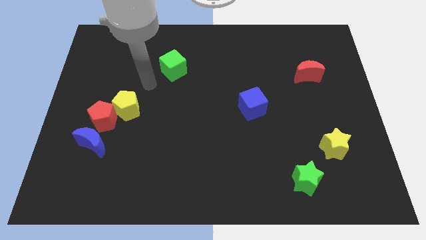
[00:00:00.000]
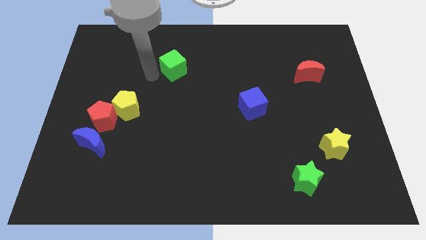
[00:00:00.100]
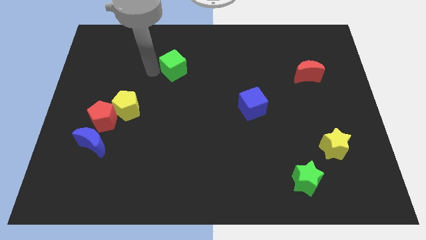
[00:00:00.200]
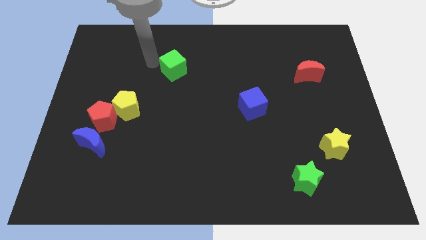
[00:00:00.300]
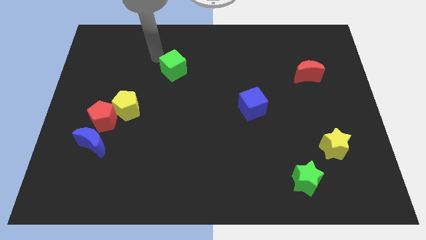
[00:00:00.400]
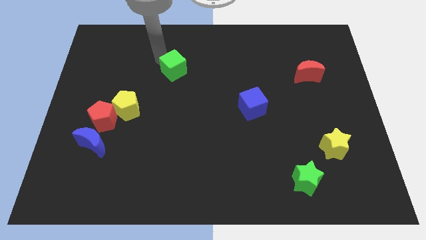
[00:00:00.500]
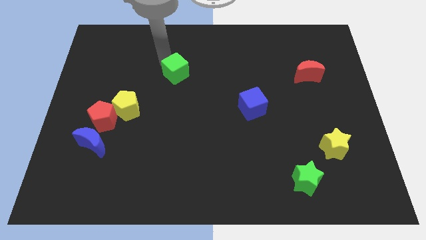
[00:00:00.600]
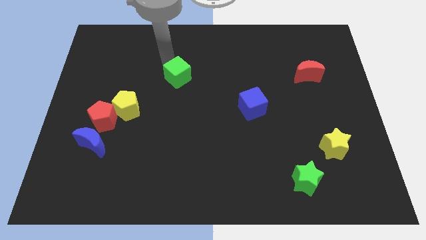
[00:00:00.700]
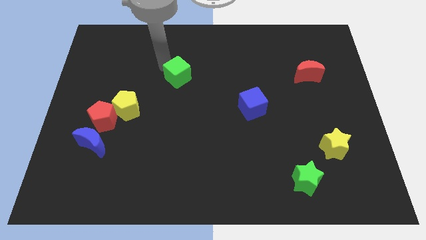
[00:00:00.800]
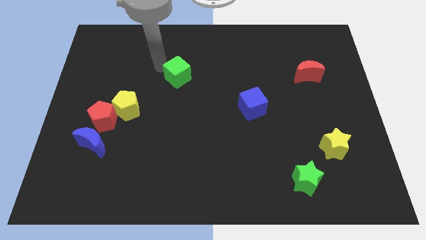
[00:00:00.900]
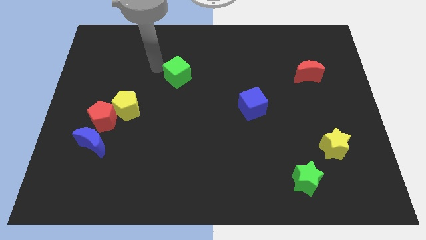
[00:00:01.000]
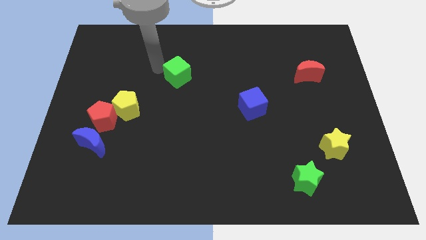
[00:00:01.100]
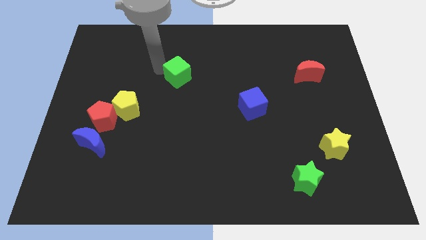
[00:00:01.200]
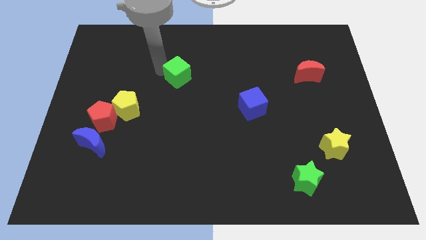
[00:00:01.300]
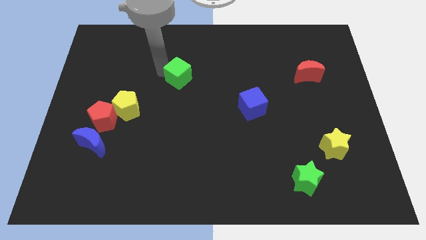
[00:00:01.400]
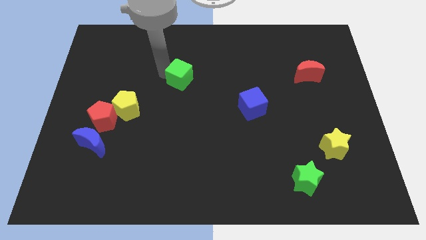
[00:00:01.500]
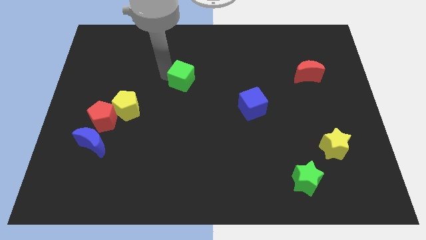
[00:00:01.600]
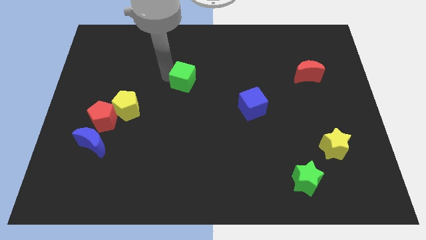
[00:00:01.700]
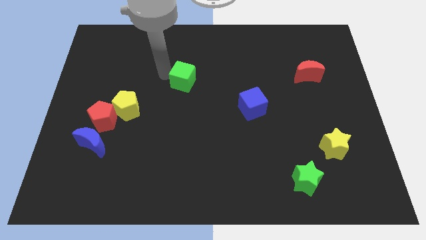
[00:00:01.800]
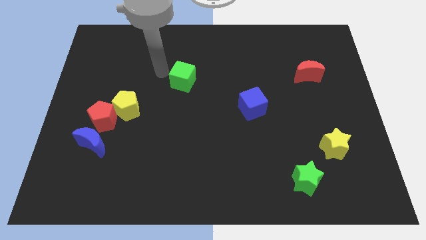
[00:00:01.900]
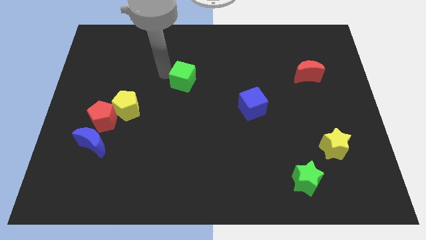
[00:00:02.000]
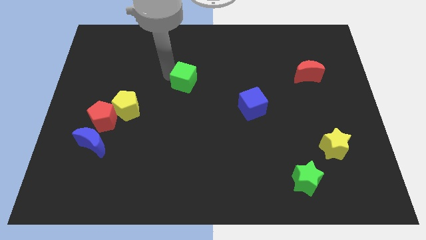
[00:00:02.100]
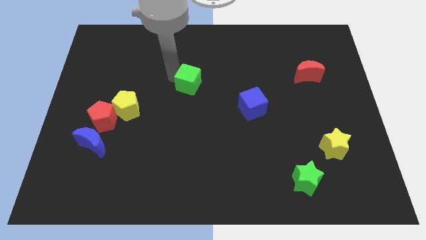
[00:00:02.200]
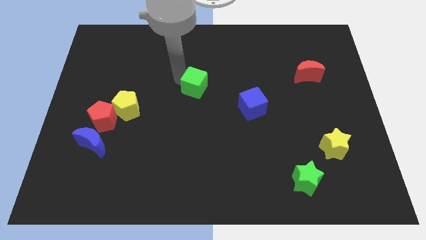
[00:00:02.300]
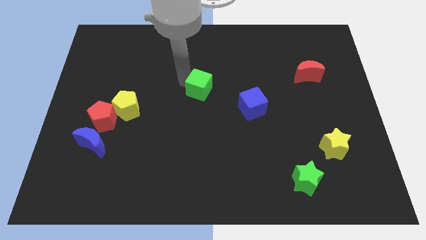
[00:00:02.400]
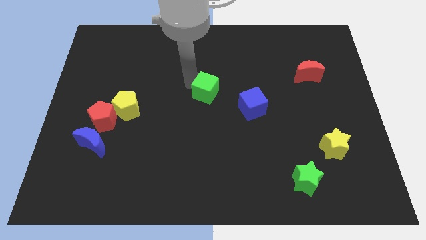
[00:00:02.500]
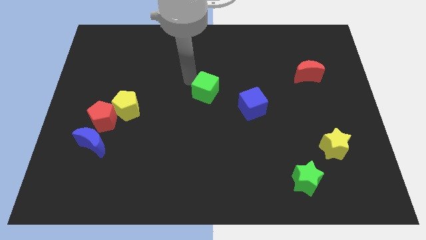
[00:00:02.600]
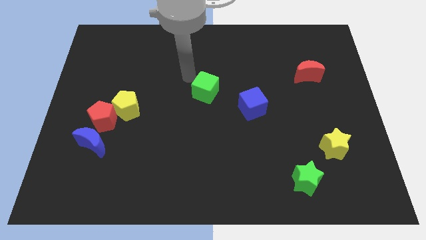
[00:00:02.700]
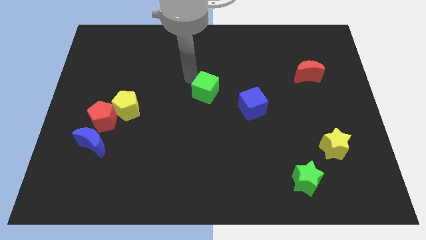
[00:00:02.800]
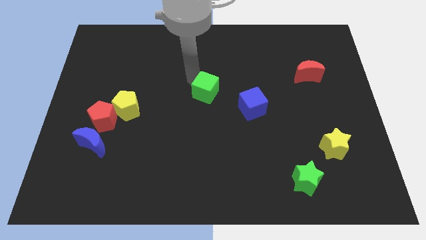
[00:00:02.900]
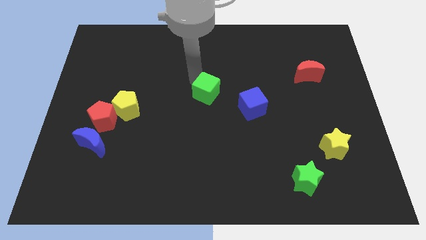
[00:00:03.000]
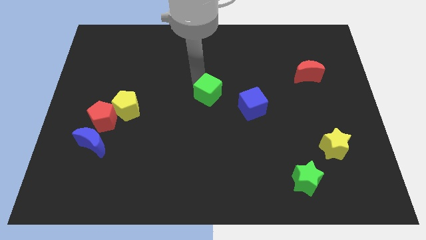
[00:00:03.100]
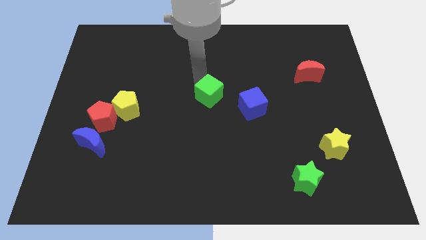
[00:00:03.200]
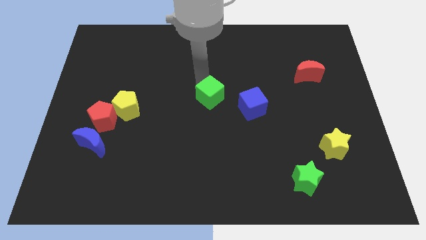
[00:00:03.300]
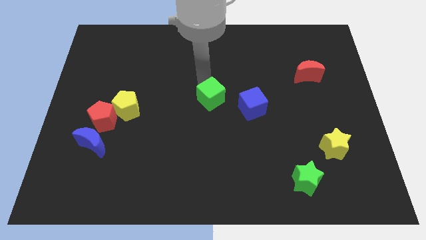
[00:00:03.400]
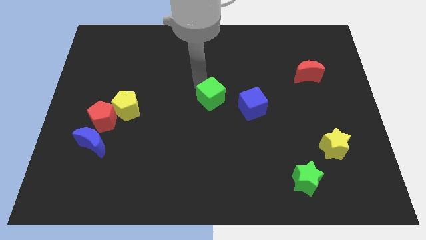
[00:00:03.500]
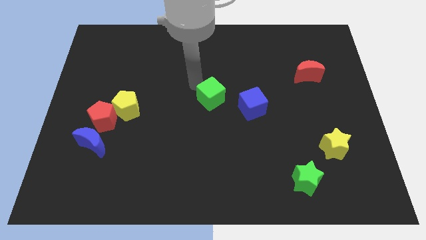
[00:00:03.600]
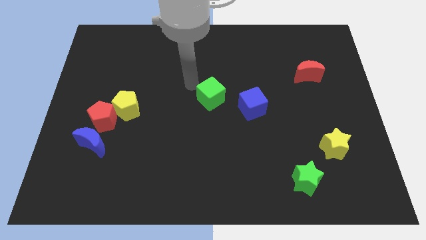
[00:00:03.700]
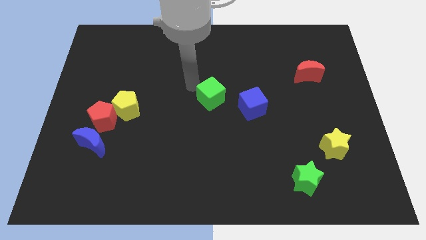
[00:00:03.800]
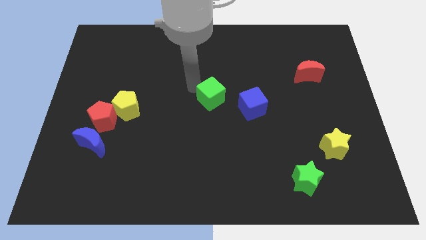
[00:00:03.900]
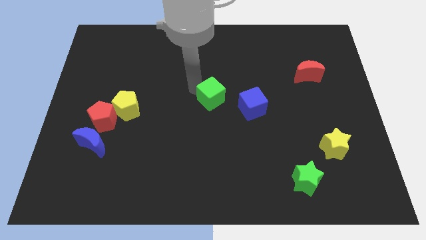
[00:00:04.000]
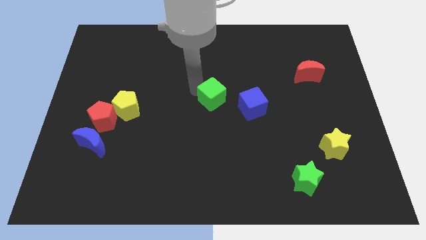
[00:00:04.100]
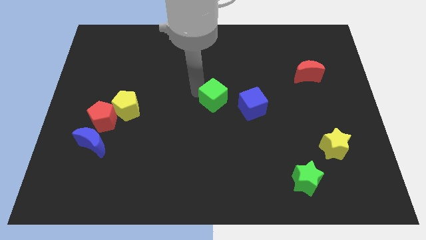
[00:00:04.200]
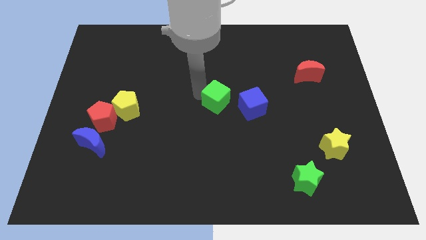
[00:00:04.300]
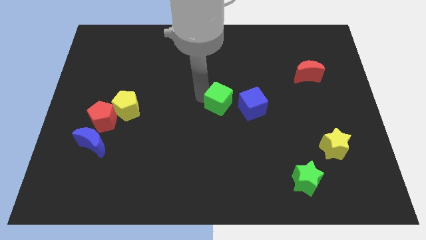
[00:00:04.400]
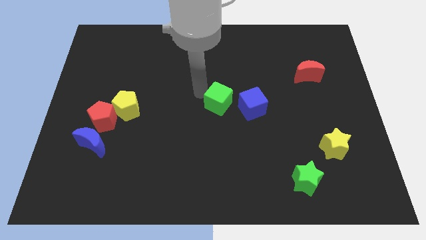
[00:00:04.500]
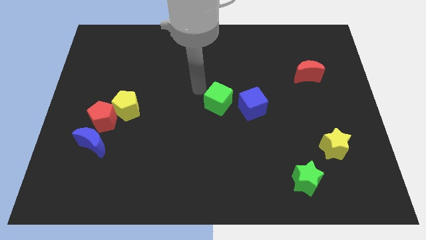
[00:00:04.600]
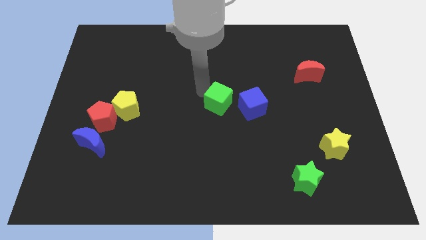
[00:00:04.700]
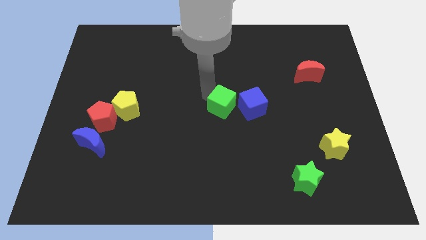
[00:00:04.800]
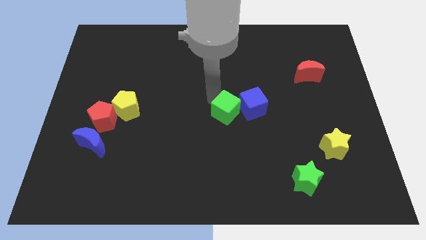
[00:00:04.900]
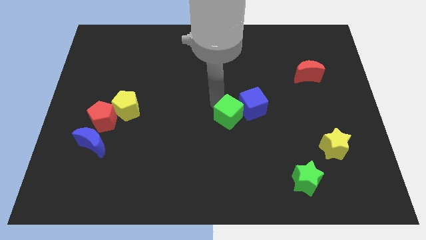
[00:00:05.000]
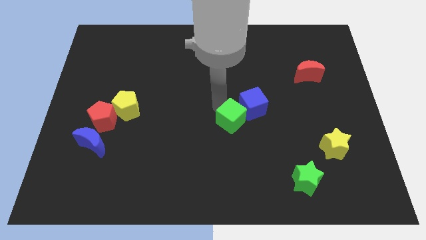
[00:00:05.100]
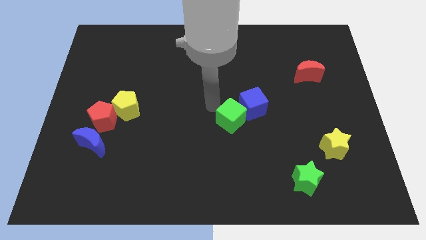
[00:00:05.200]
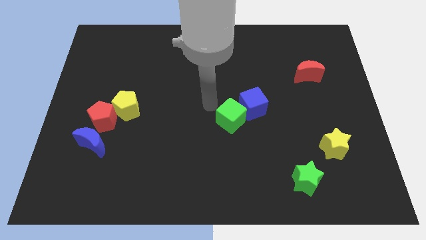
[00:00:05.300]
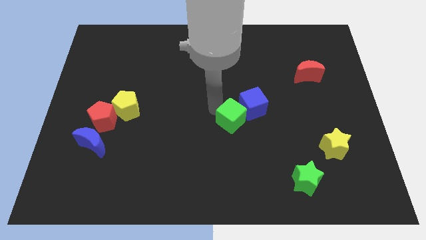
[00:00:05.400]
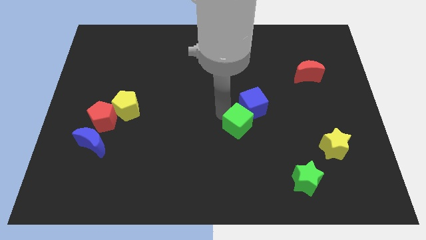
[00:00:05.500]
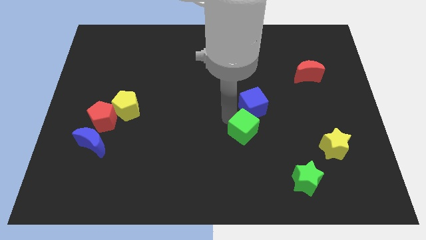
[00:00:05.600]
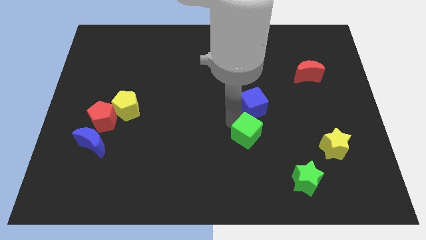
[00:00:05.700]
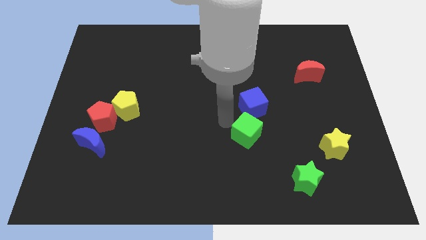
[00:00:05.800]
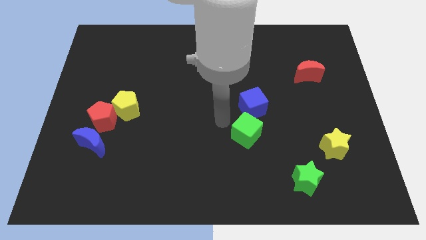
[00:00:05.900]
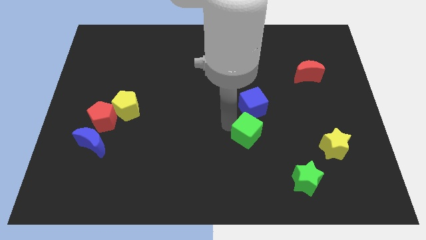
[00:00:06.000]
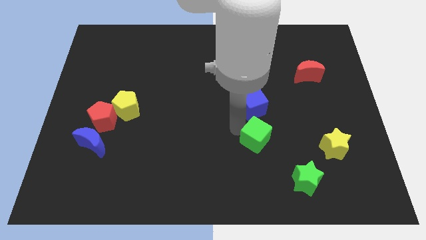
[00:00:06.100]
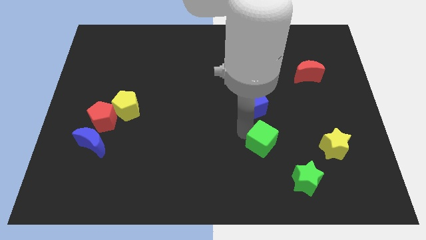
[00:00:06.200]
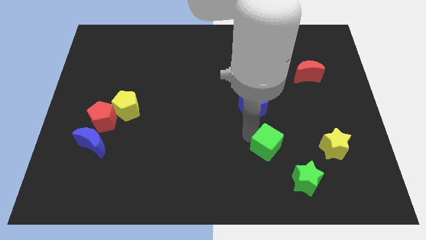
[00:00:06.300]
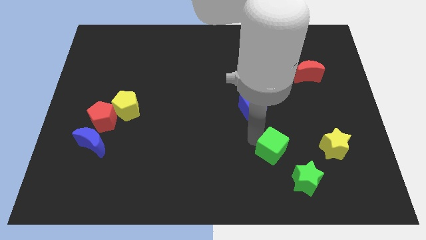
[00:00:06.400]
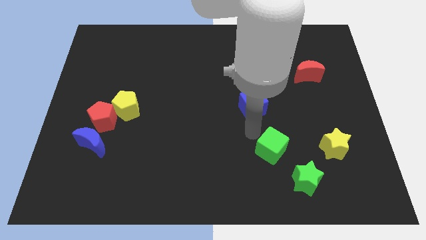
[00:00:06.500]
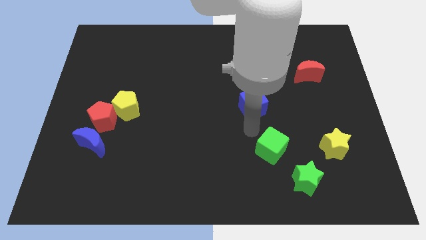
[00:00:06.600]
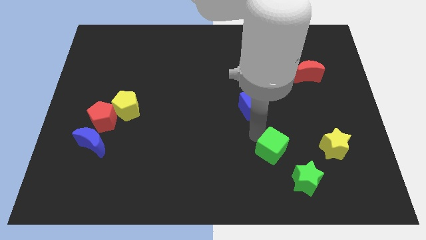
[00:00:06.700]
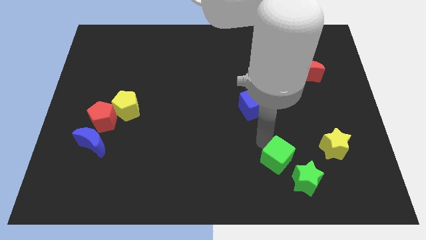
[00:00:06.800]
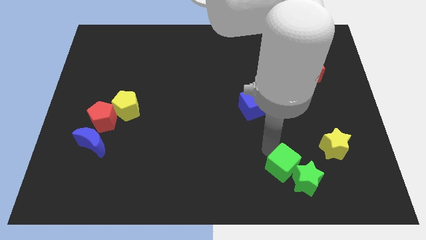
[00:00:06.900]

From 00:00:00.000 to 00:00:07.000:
put the green cube close to the green star

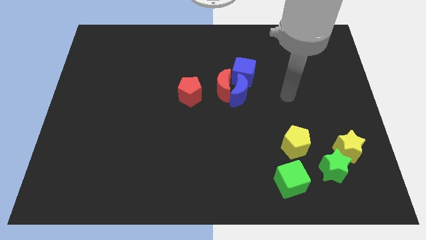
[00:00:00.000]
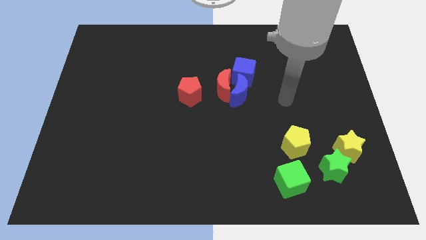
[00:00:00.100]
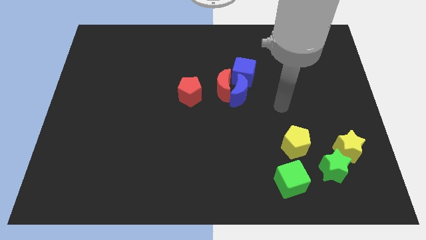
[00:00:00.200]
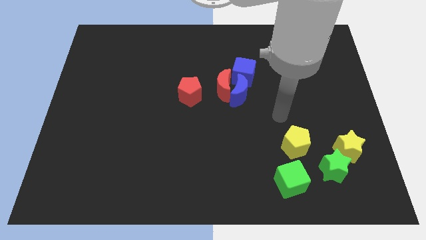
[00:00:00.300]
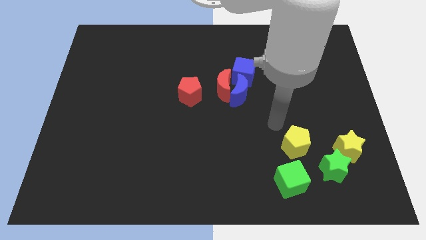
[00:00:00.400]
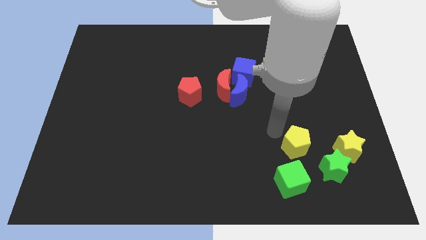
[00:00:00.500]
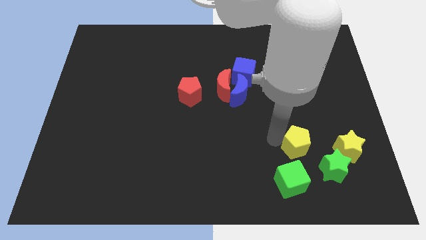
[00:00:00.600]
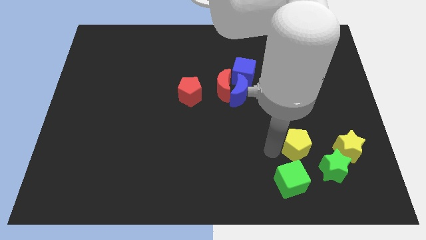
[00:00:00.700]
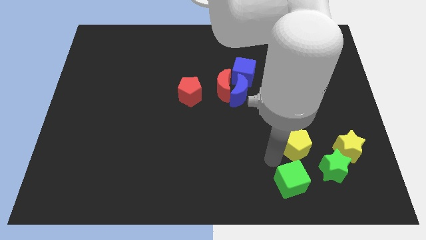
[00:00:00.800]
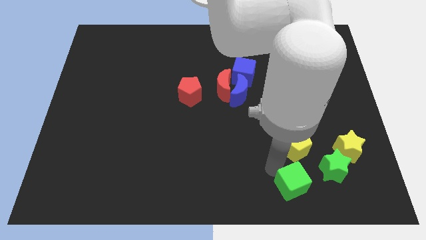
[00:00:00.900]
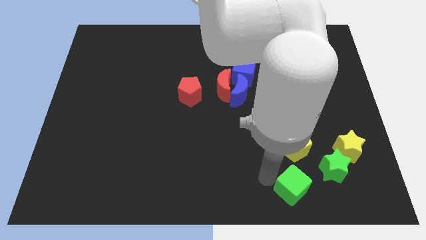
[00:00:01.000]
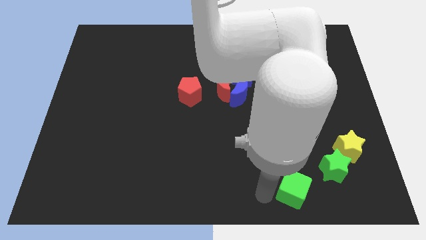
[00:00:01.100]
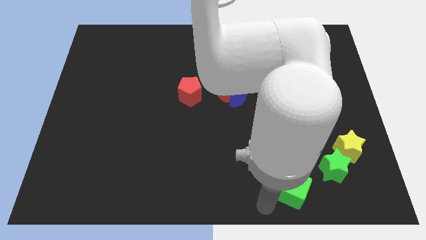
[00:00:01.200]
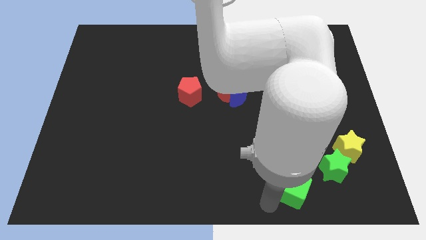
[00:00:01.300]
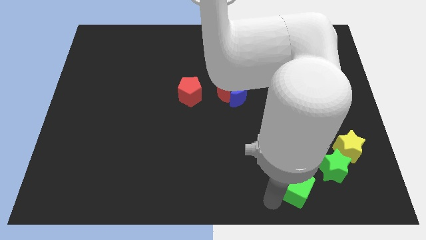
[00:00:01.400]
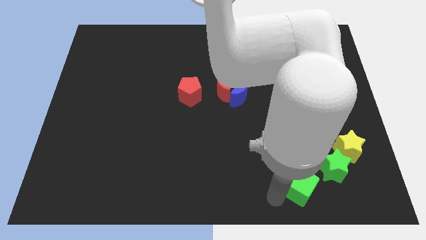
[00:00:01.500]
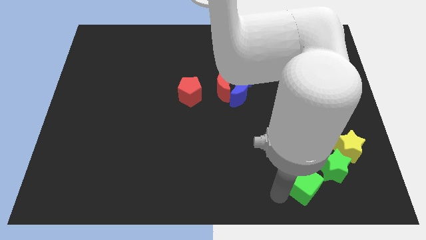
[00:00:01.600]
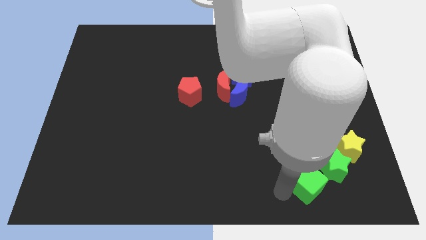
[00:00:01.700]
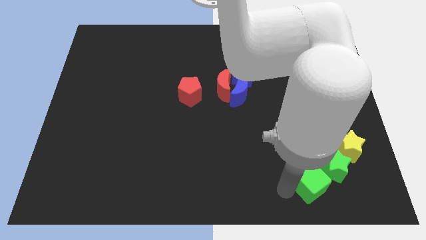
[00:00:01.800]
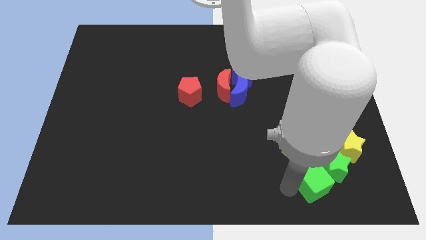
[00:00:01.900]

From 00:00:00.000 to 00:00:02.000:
slide the green cube to the green star
